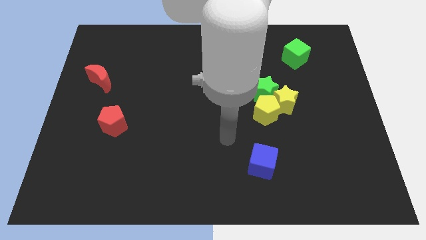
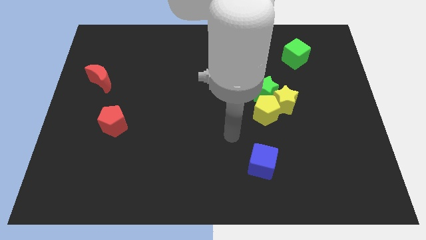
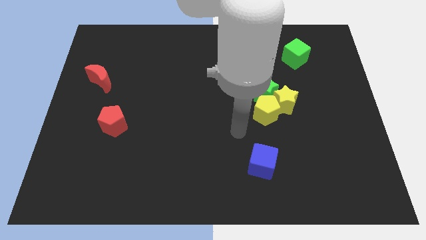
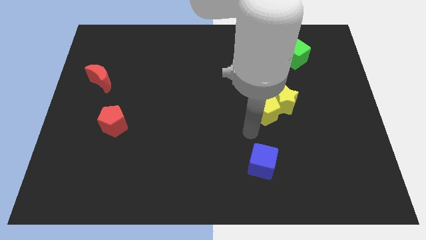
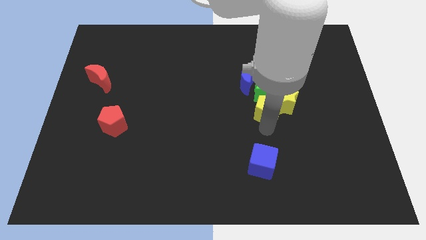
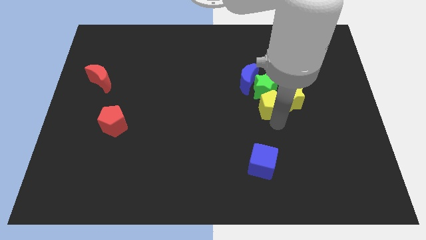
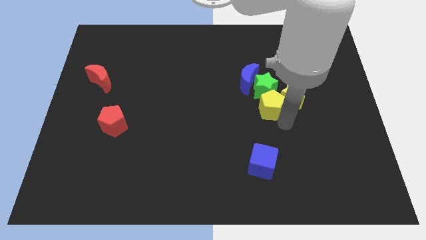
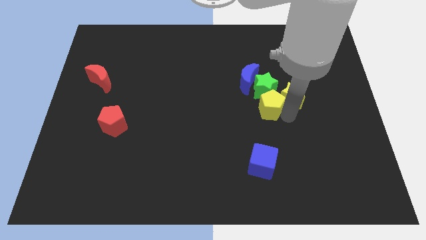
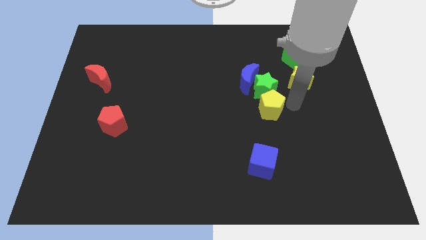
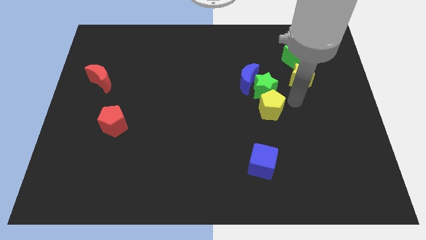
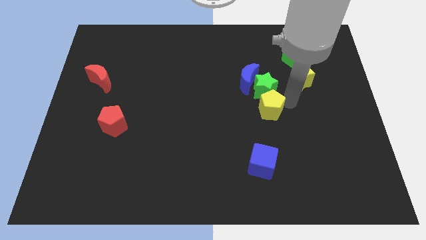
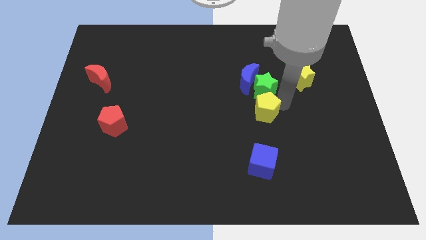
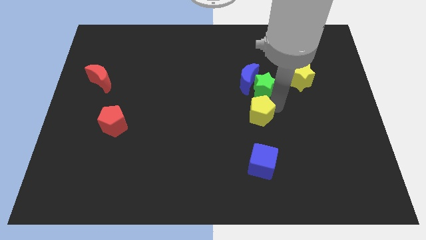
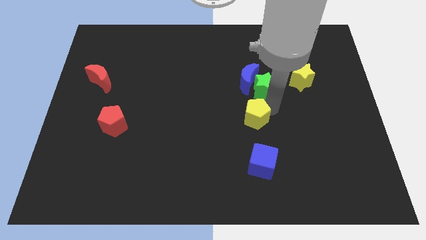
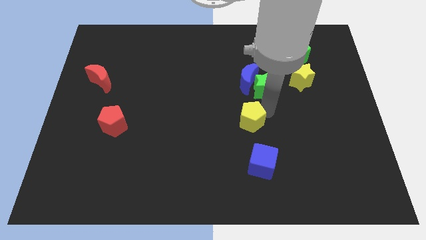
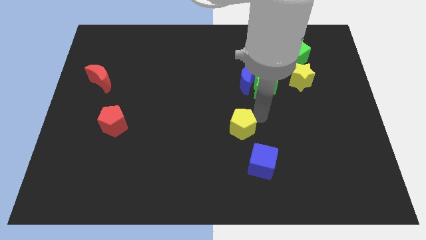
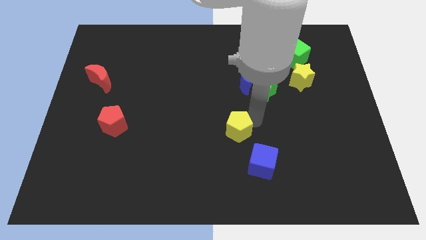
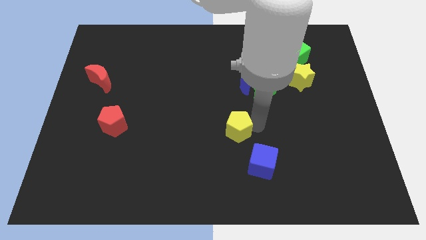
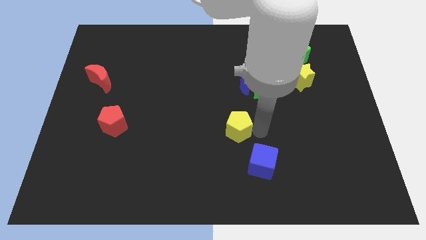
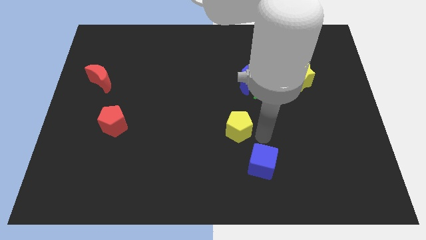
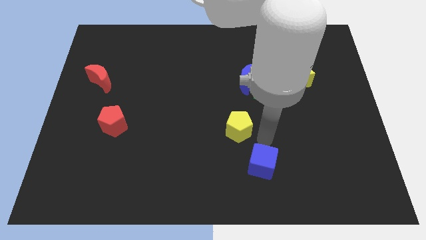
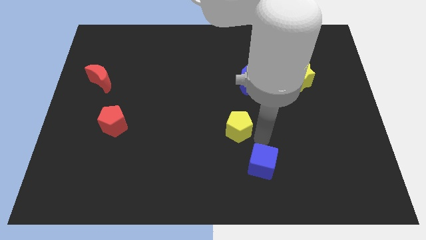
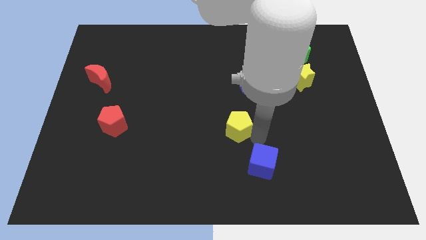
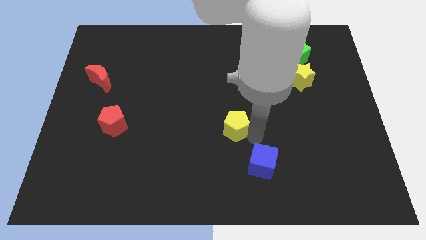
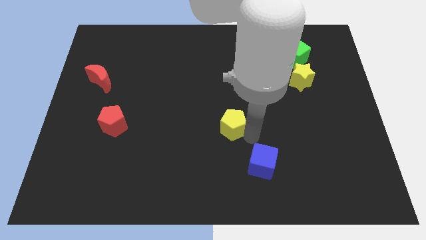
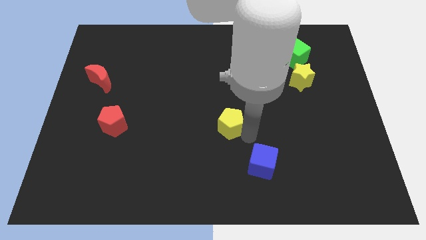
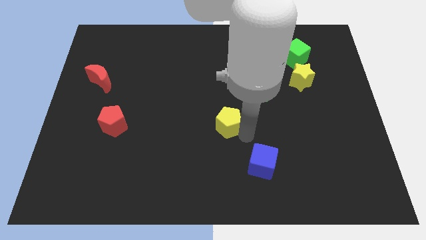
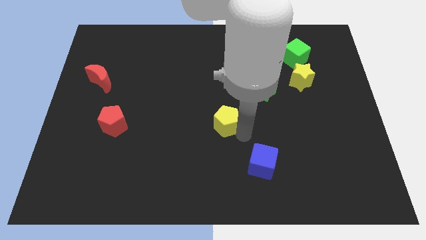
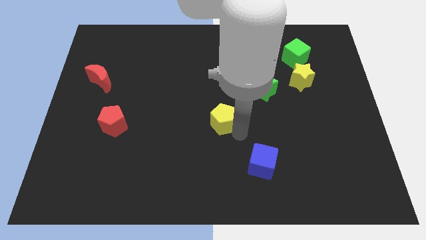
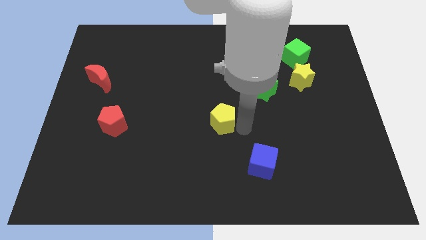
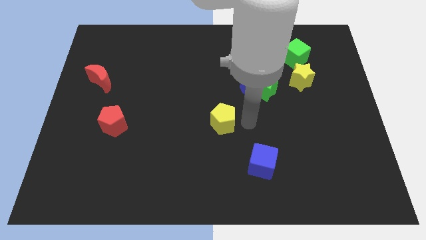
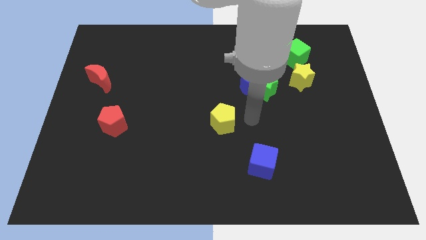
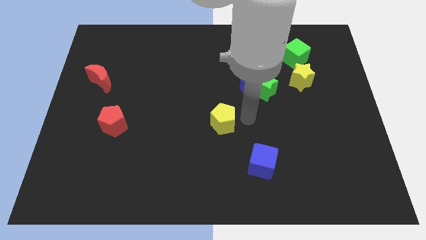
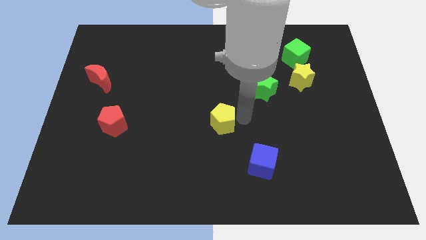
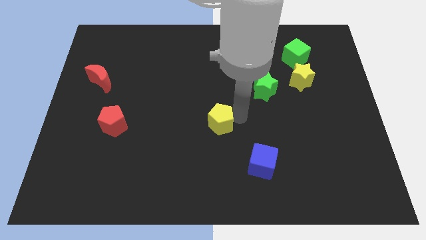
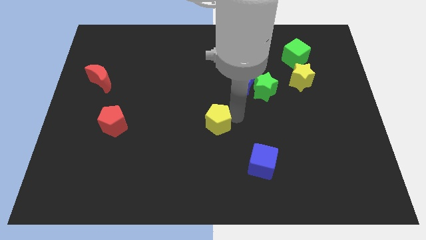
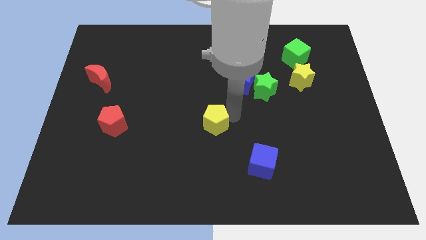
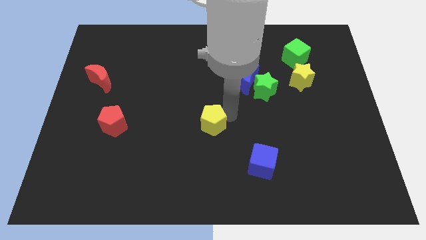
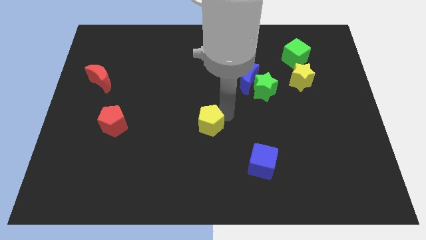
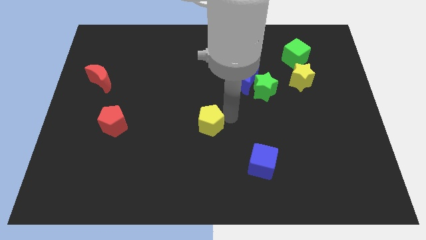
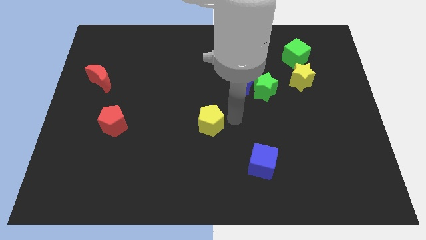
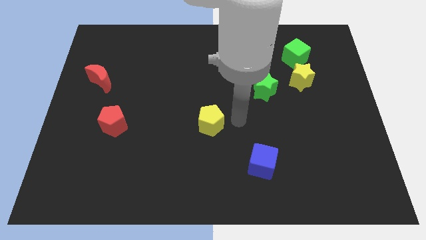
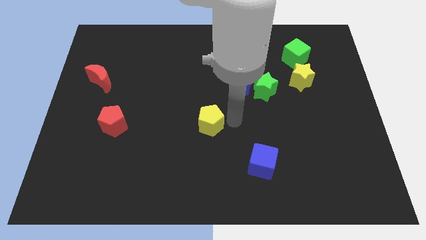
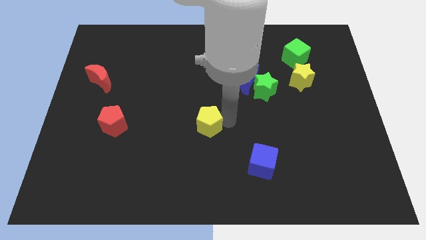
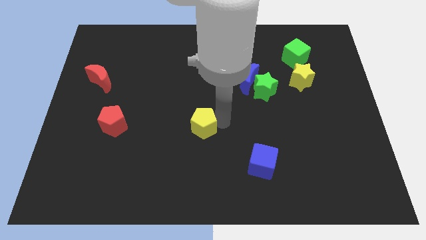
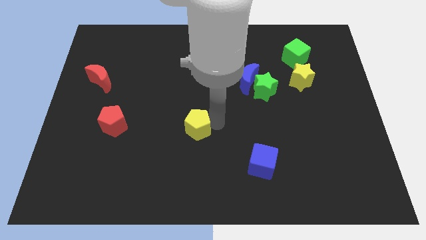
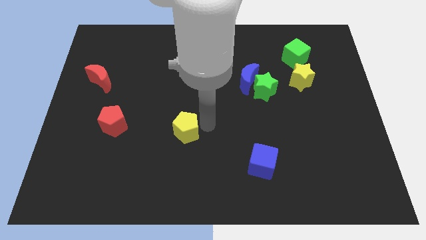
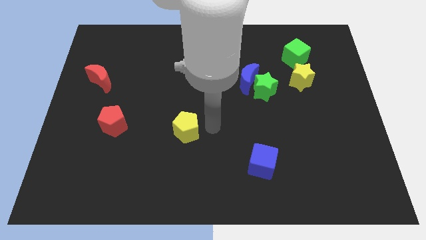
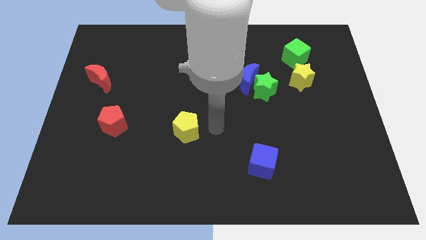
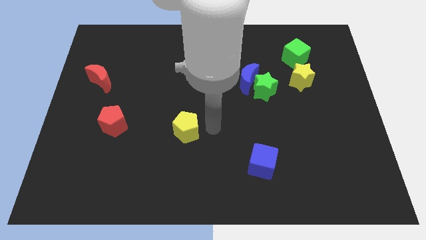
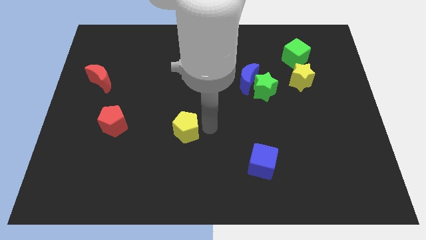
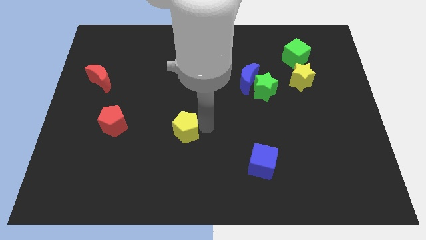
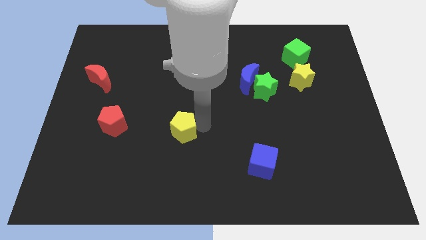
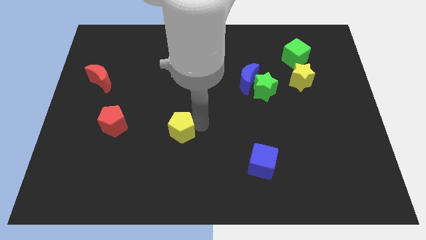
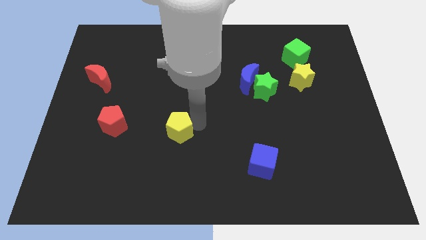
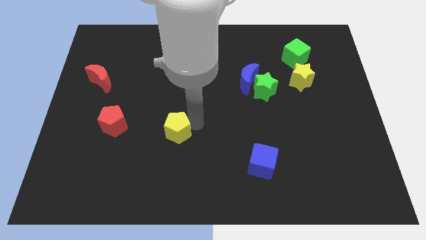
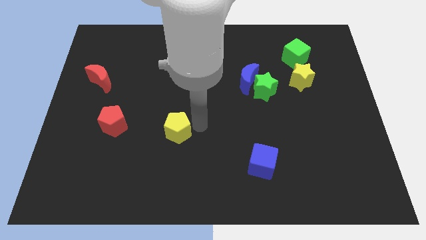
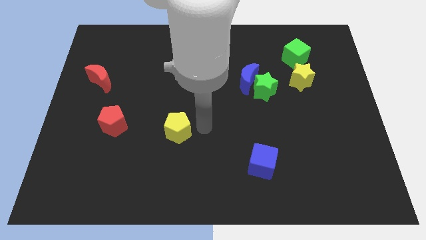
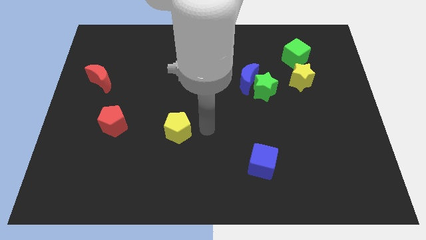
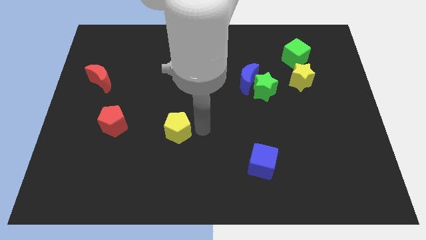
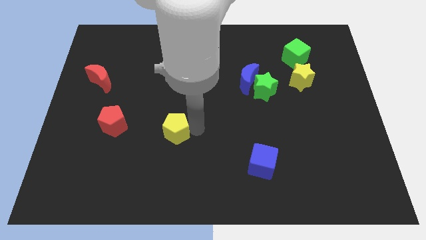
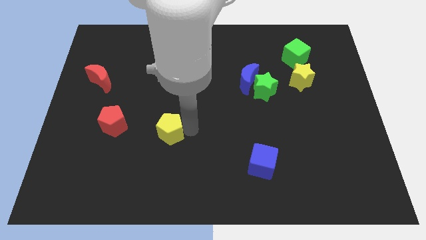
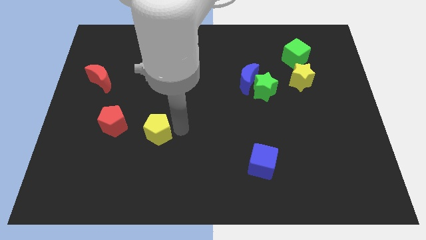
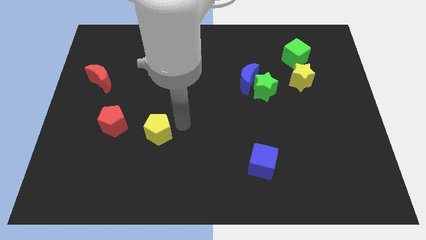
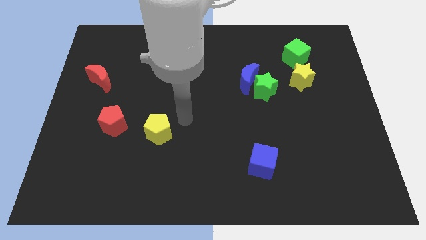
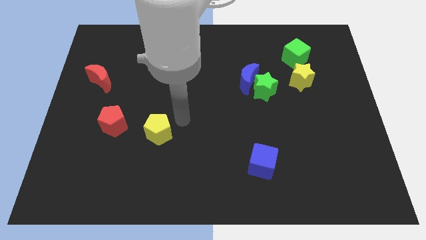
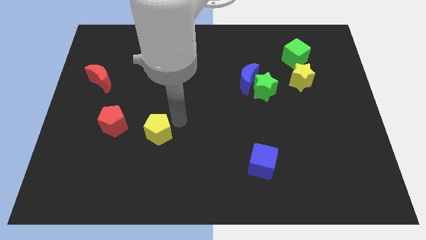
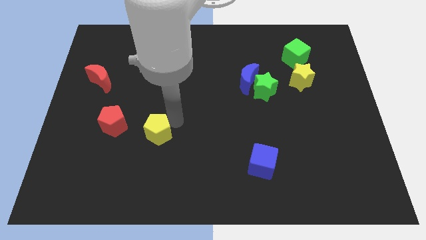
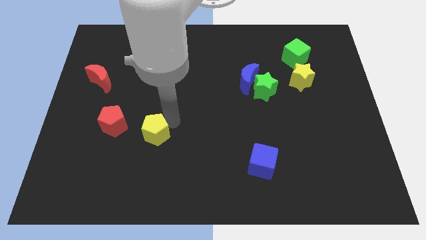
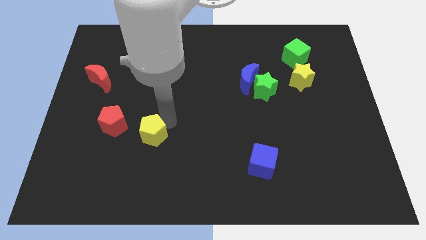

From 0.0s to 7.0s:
push the yellow pentagon to the bottom right side of the red pentagon

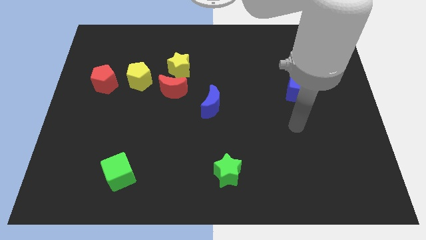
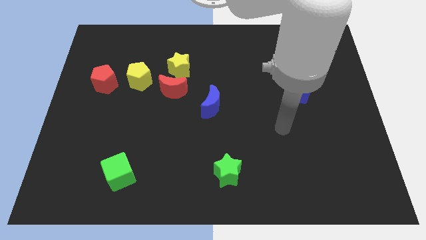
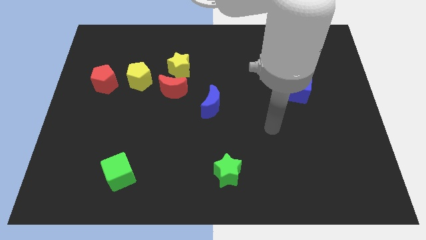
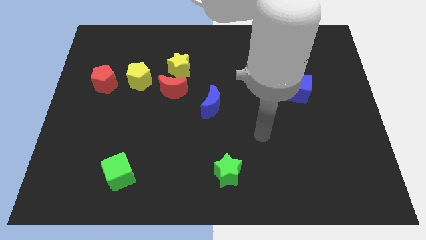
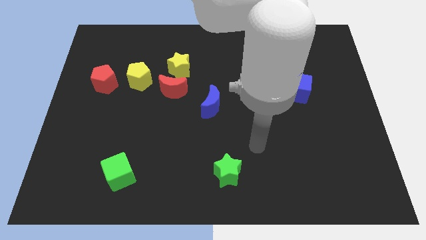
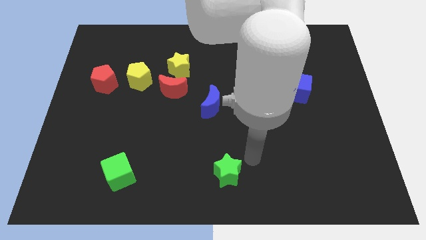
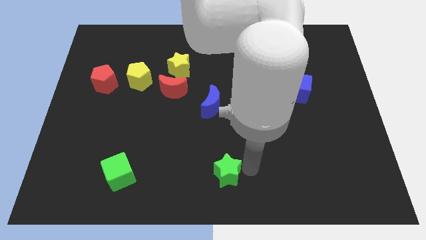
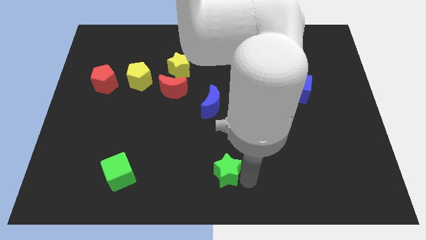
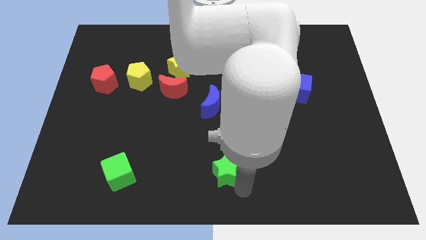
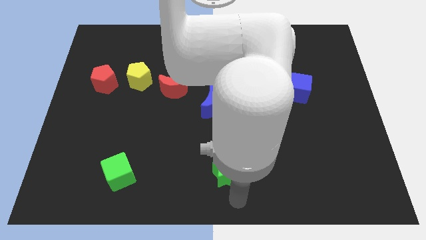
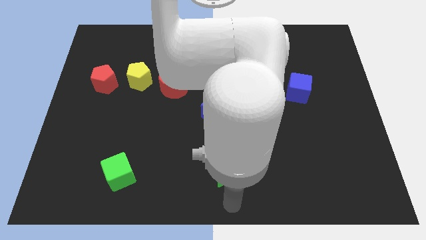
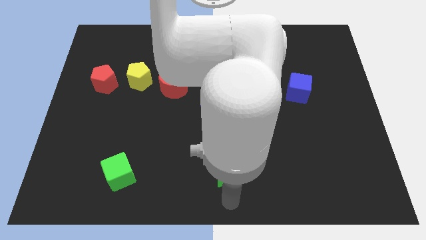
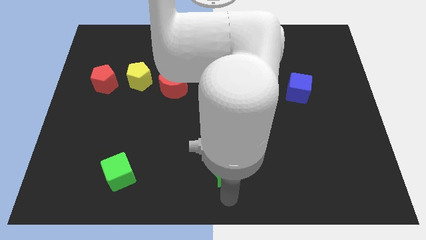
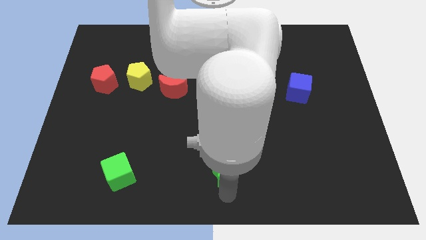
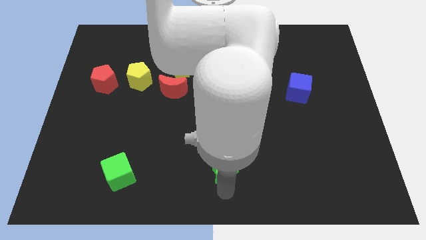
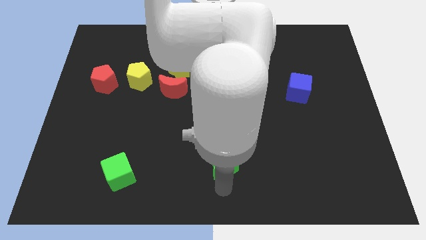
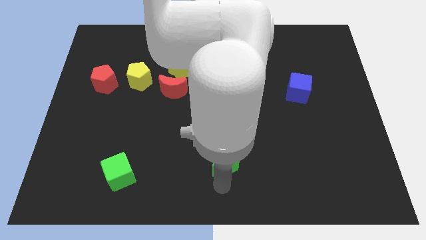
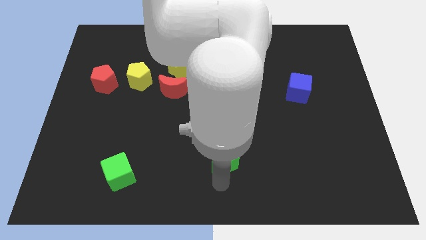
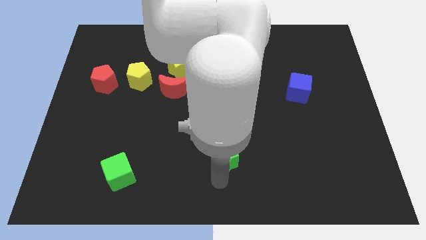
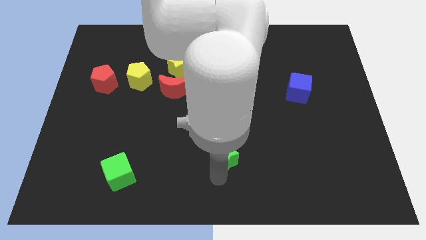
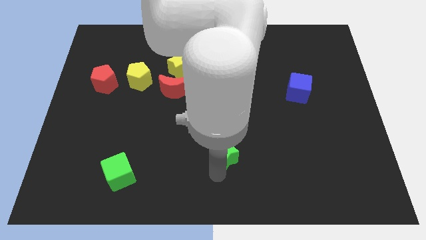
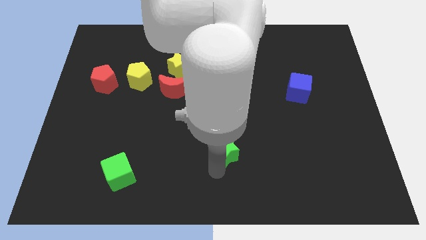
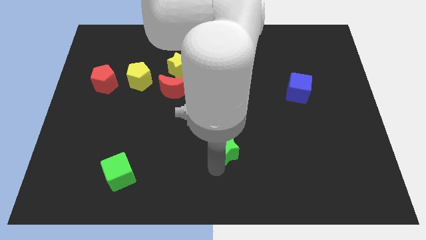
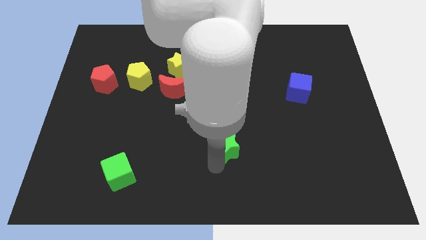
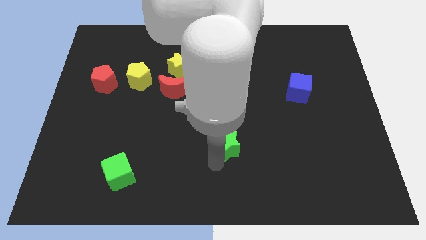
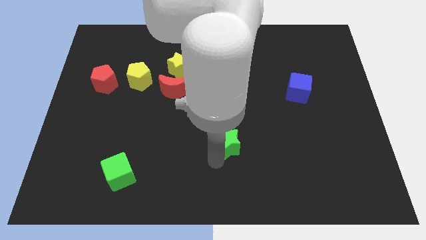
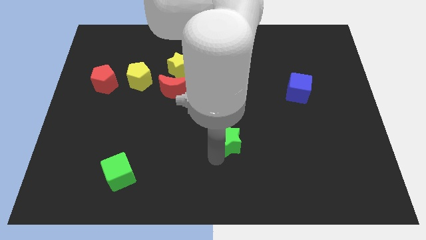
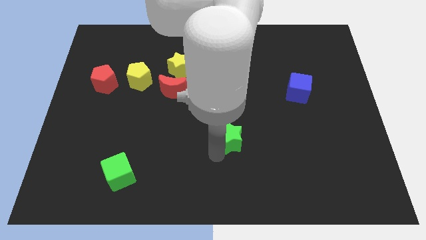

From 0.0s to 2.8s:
push the green star diagonally down and to the right of the blue moon
